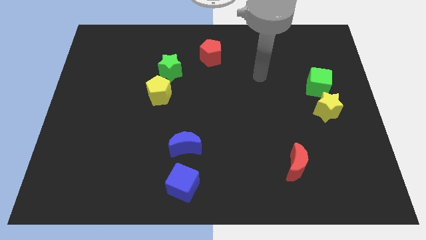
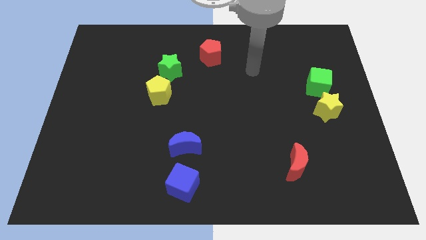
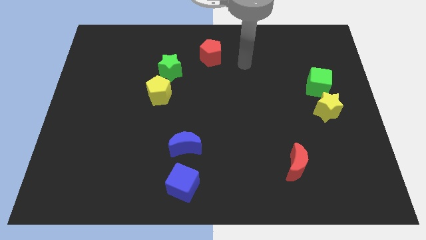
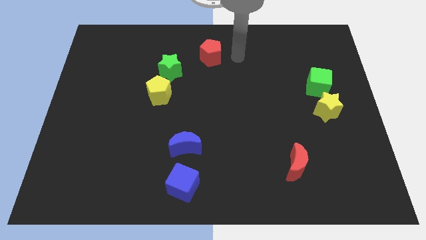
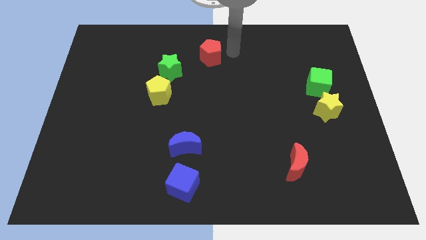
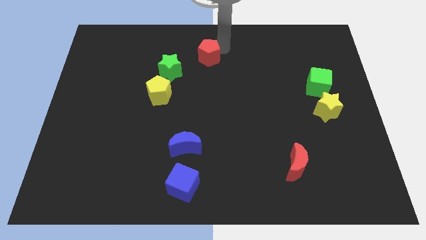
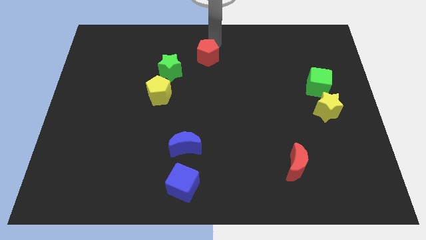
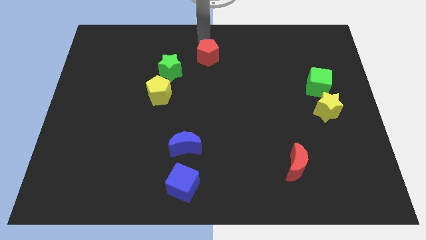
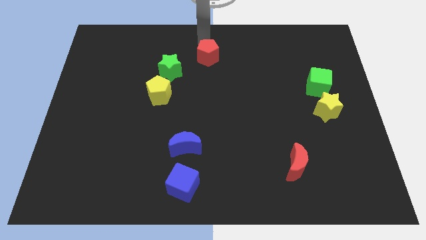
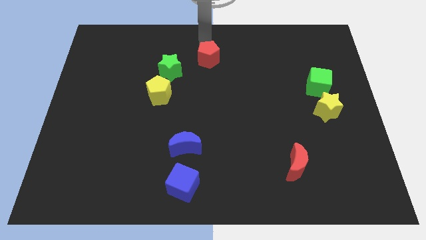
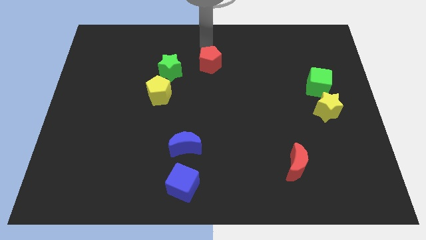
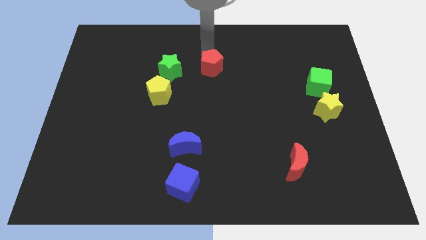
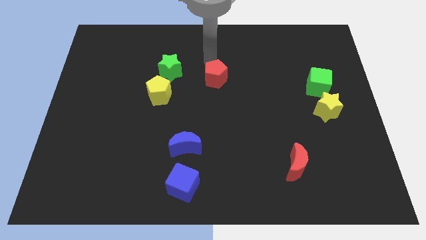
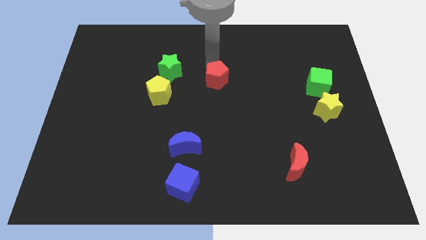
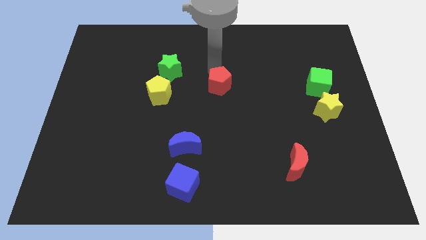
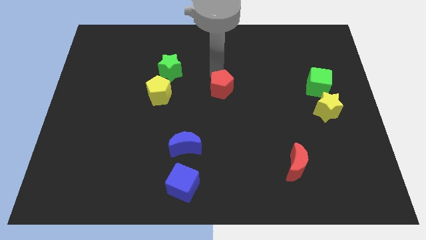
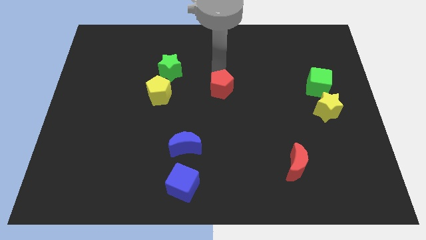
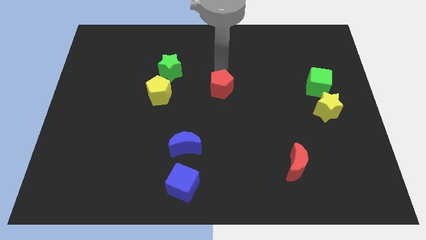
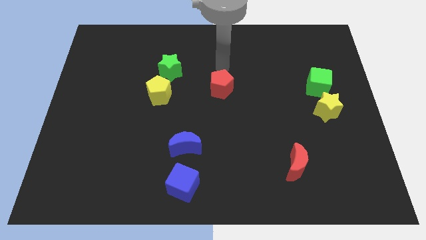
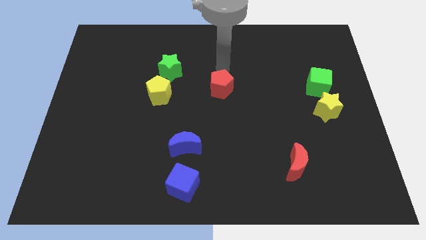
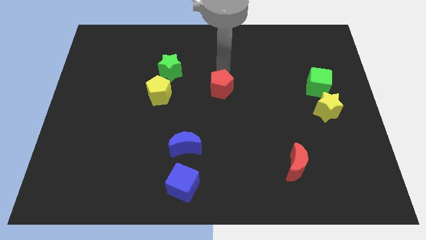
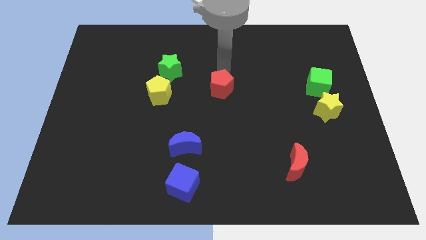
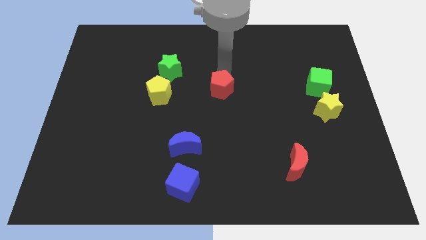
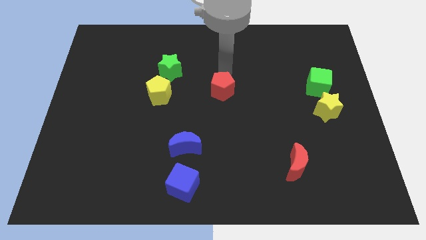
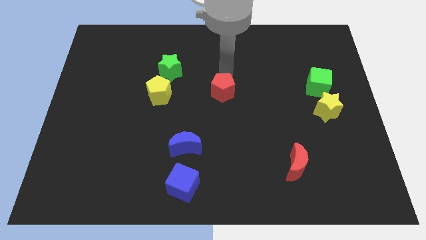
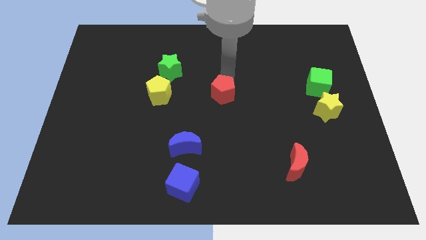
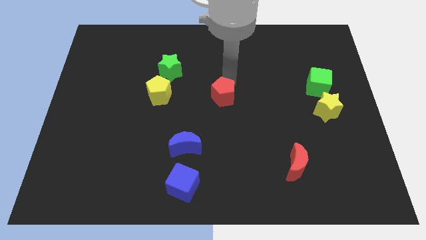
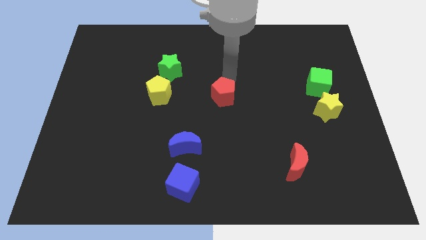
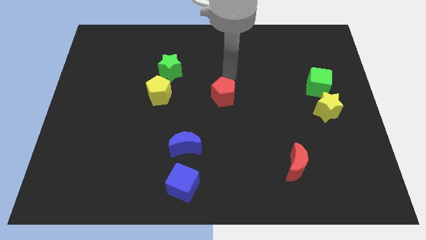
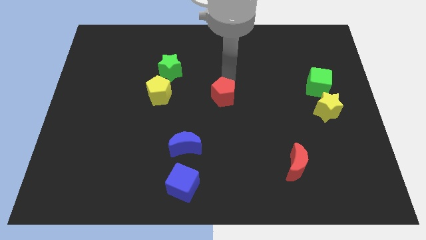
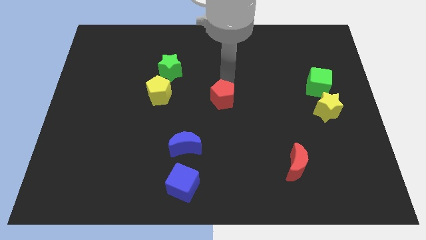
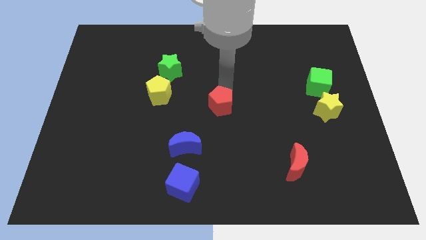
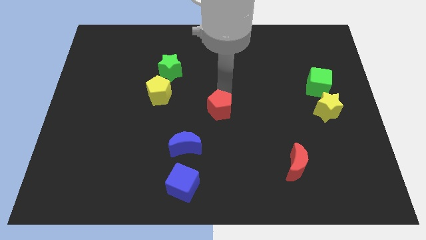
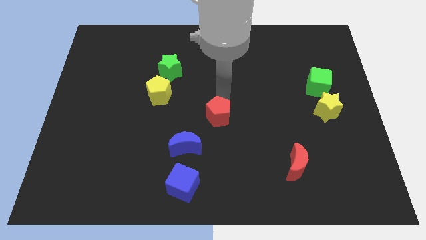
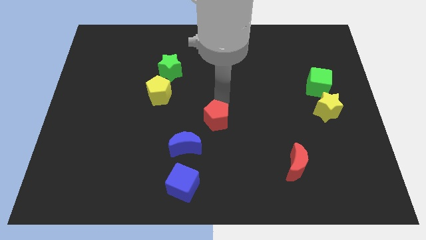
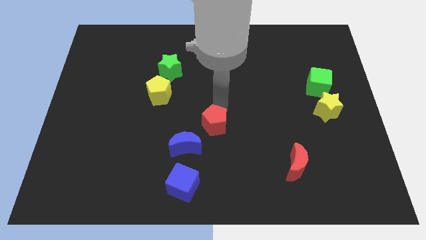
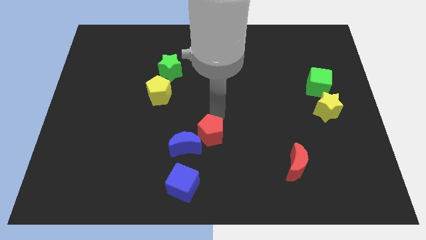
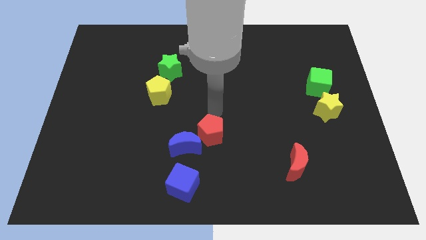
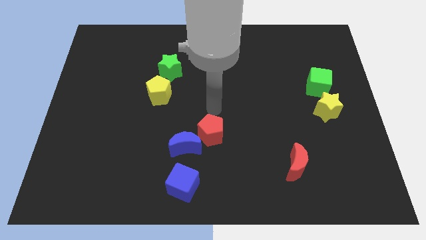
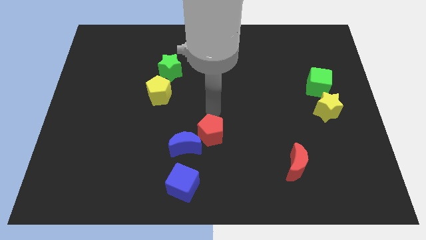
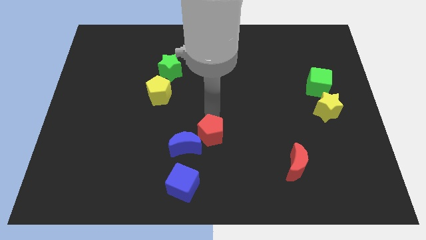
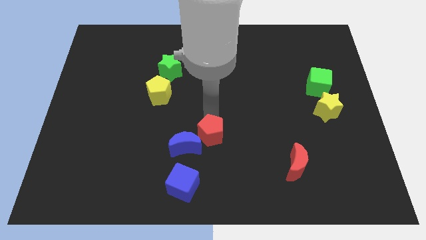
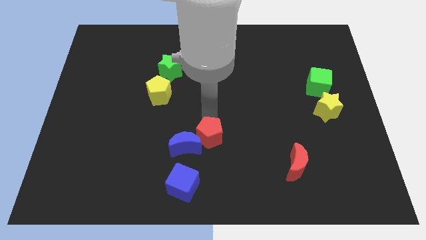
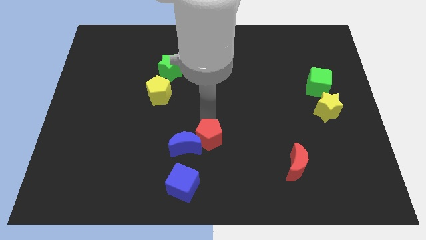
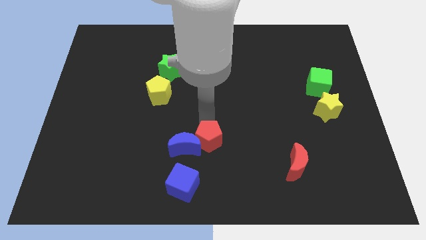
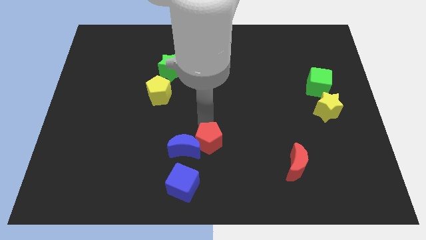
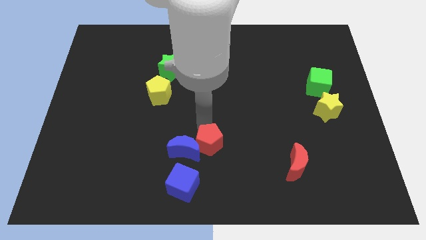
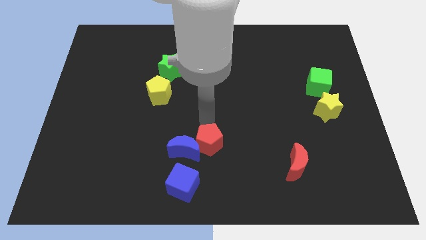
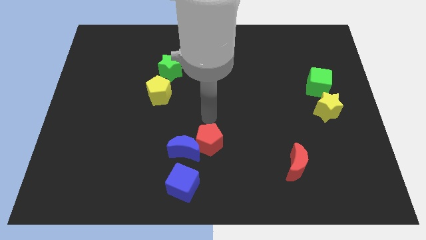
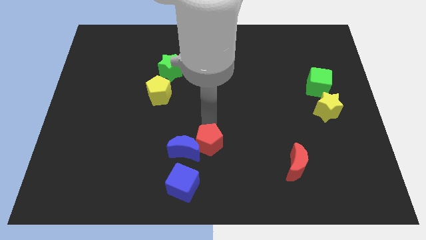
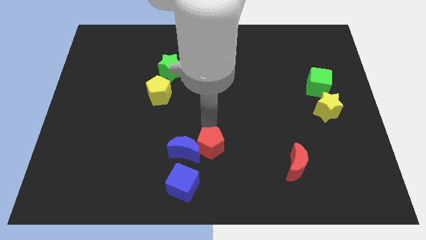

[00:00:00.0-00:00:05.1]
move the red pentagon to the bottom right of the blue moon

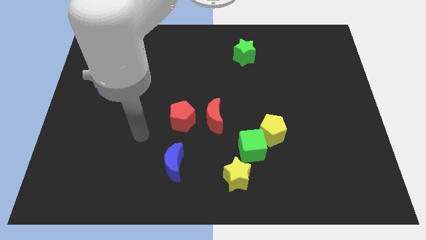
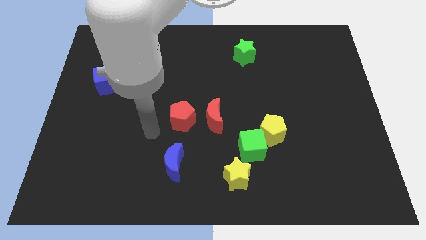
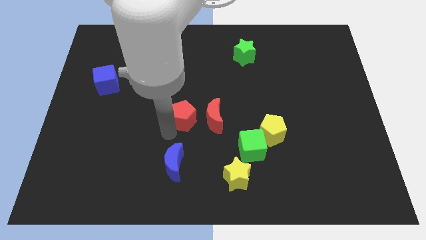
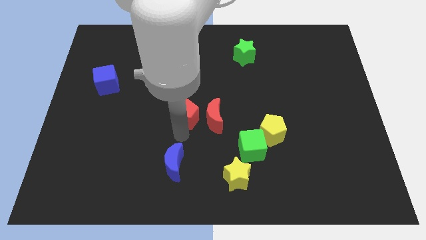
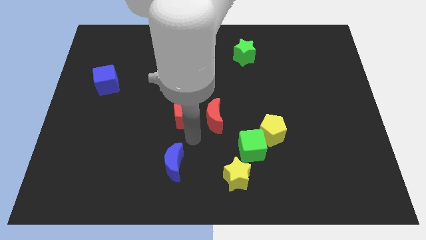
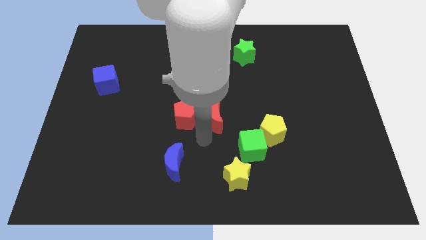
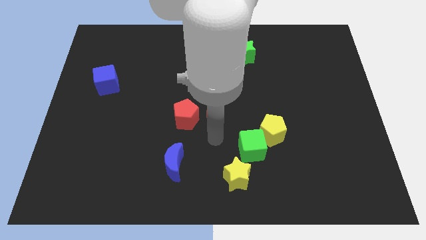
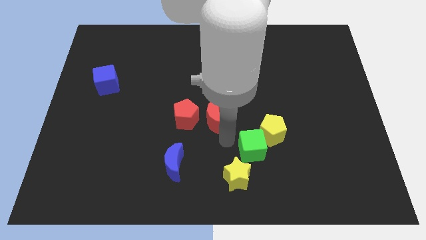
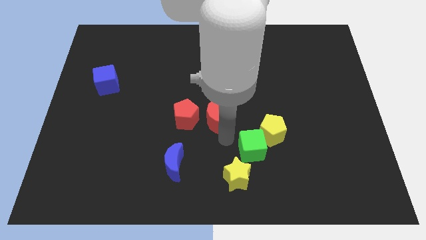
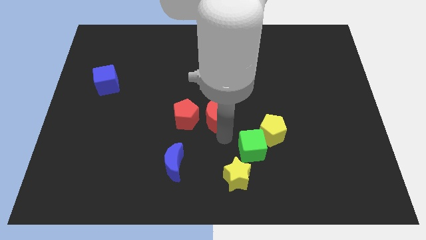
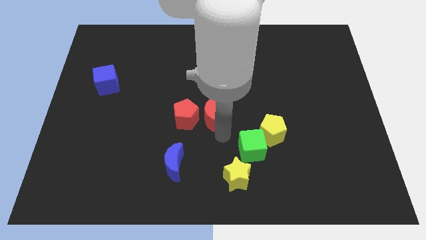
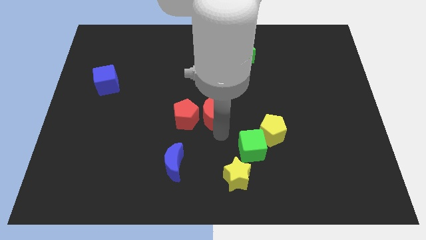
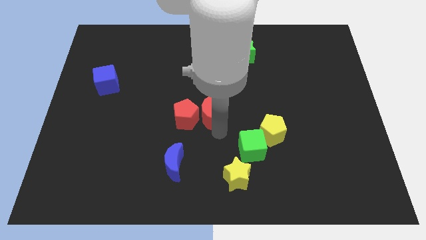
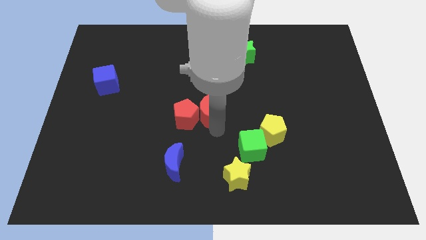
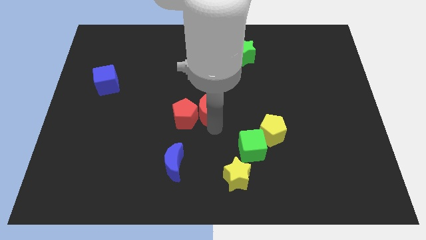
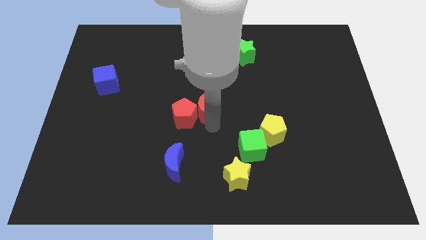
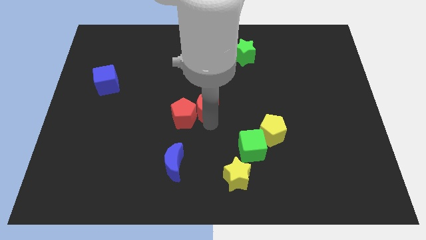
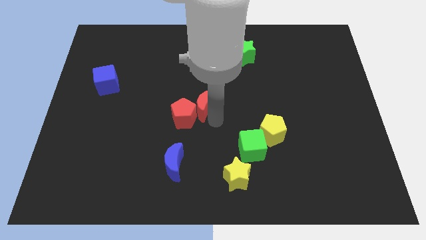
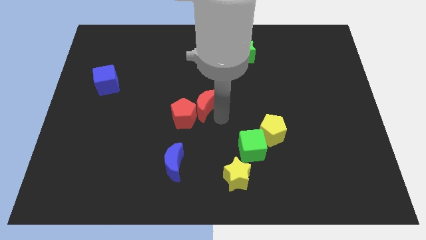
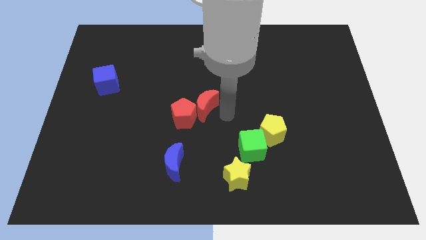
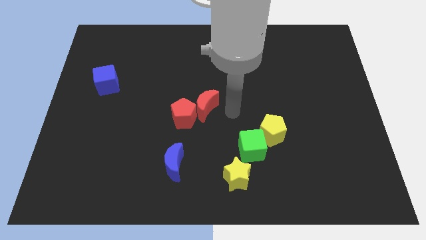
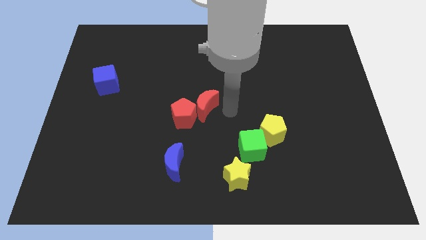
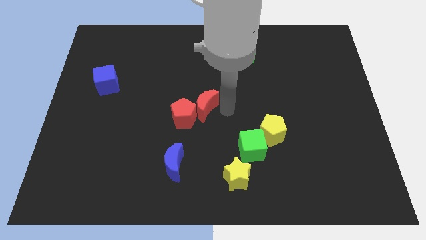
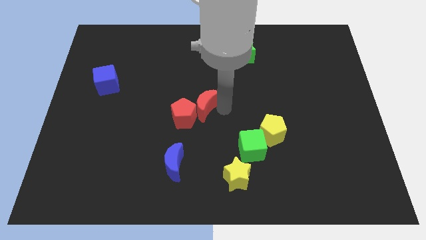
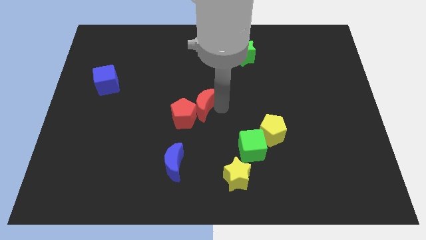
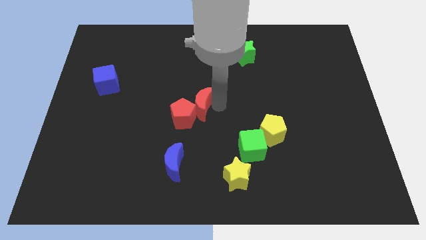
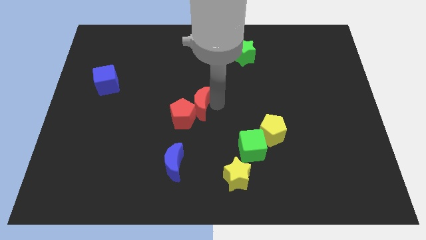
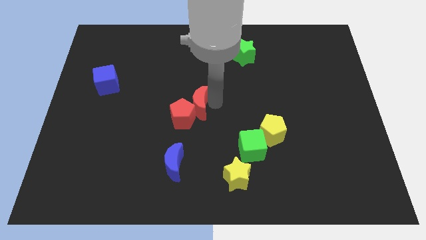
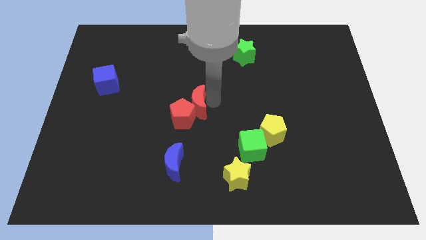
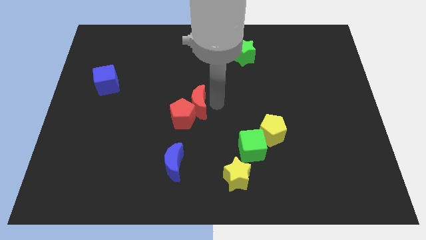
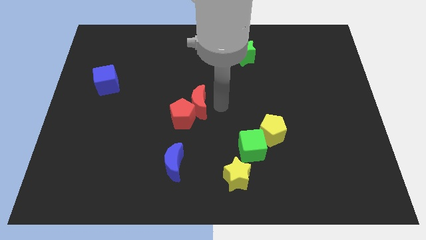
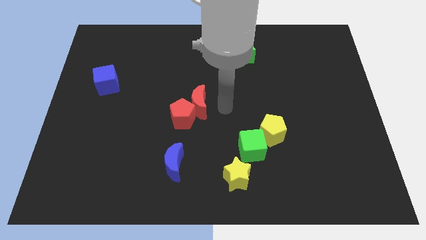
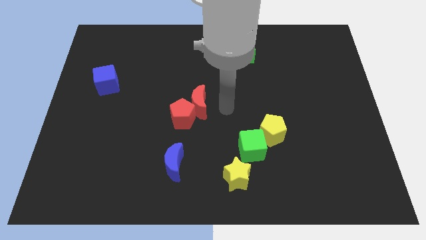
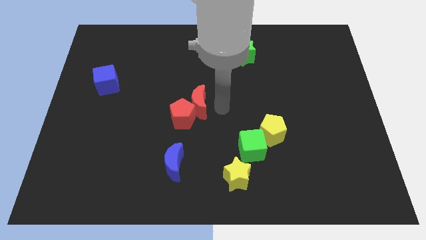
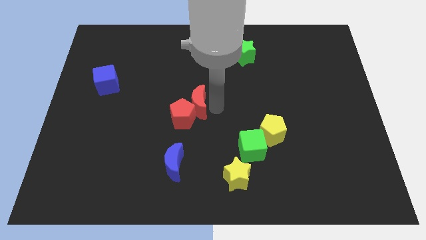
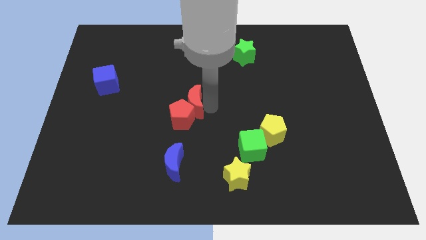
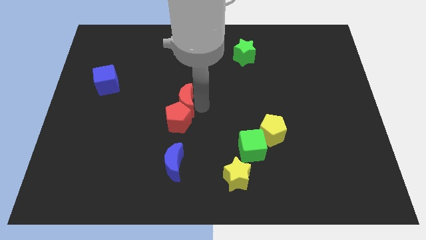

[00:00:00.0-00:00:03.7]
push the red moon to the top left of the red pentagon
